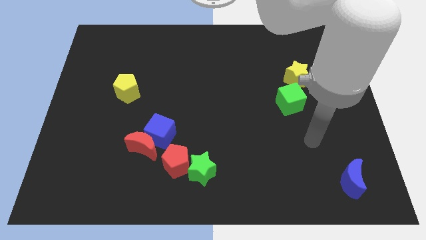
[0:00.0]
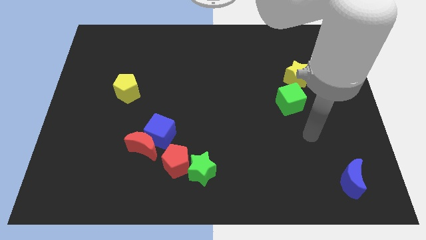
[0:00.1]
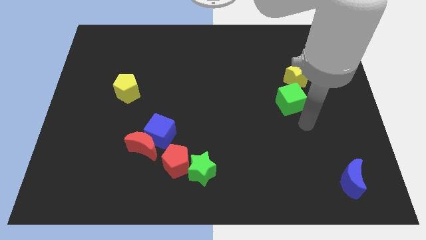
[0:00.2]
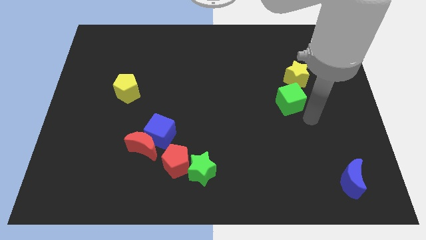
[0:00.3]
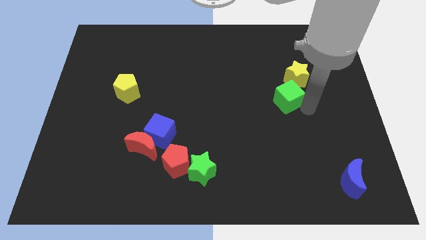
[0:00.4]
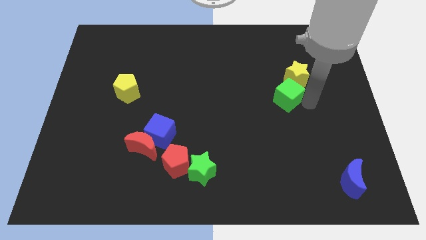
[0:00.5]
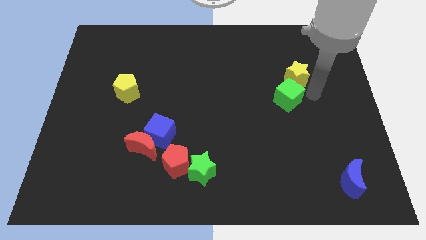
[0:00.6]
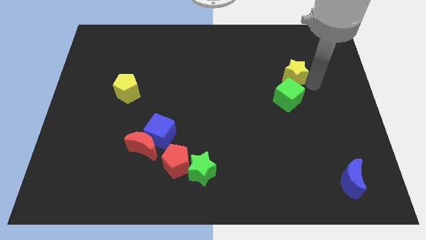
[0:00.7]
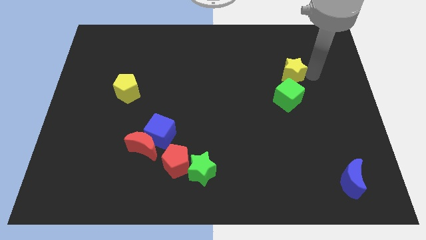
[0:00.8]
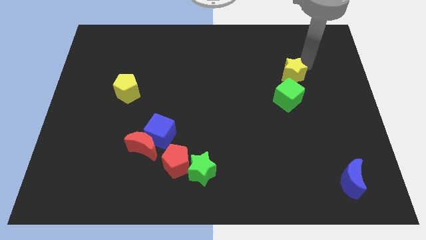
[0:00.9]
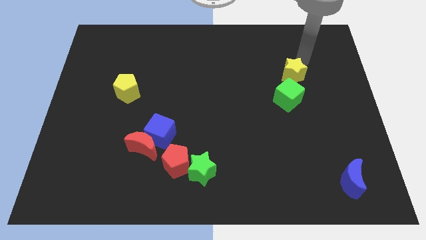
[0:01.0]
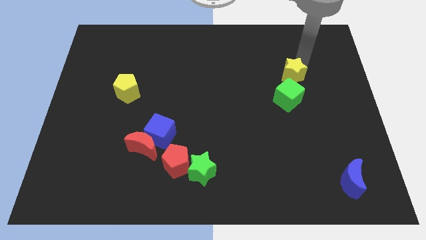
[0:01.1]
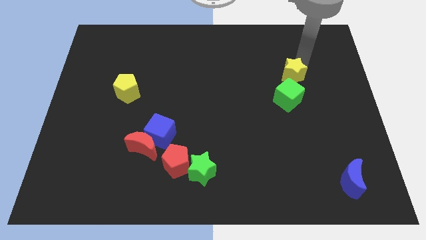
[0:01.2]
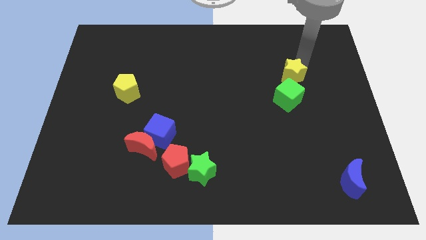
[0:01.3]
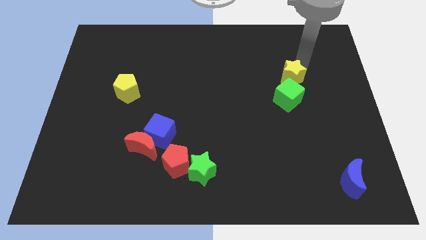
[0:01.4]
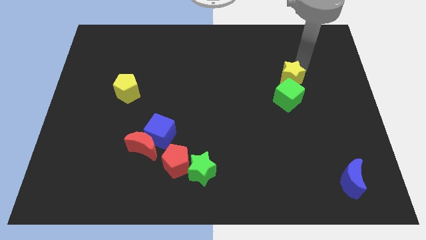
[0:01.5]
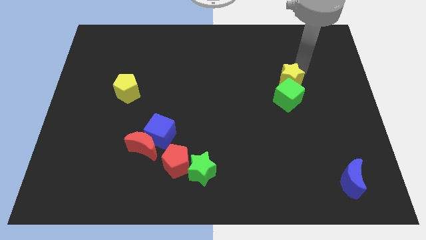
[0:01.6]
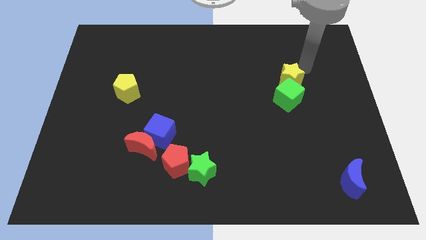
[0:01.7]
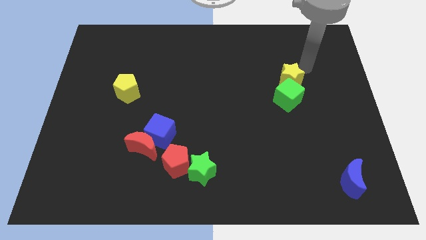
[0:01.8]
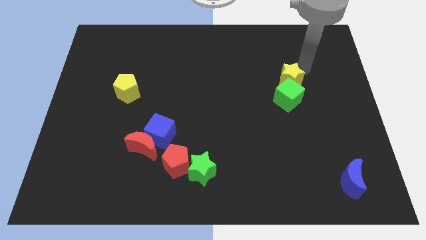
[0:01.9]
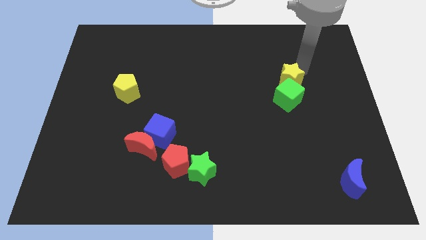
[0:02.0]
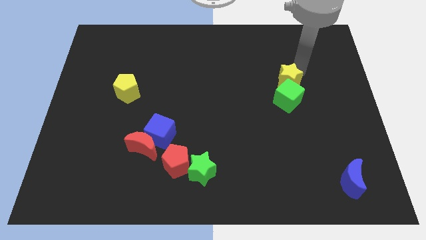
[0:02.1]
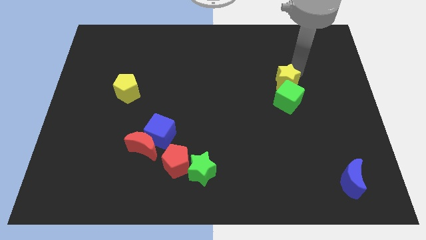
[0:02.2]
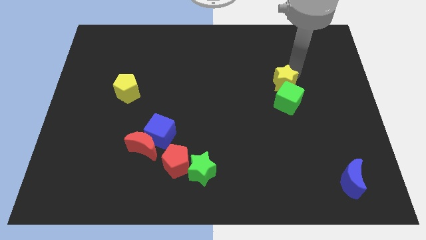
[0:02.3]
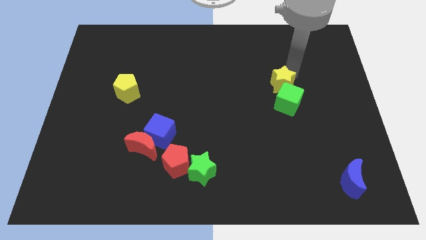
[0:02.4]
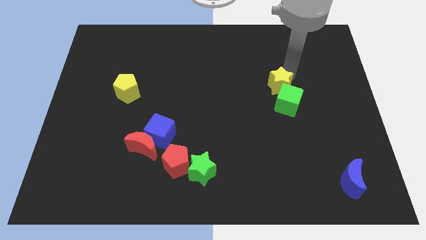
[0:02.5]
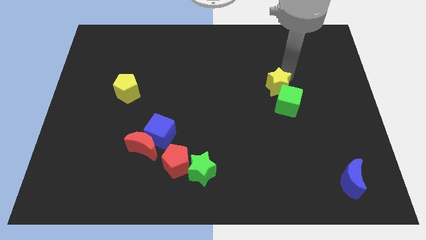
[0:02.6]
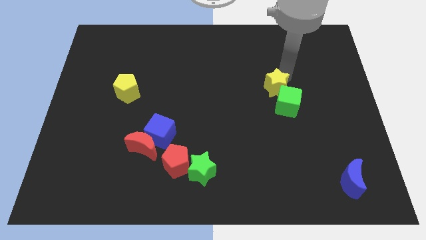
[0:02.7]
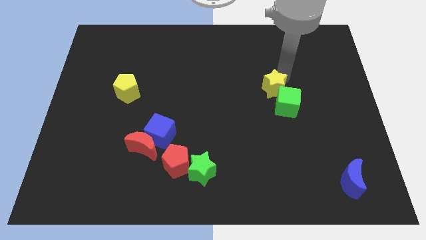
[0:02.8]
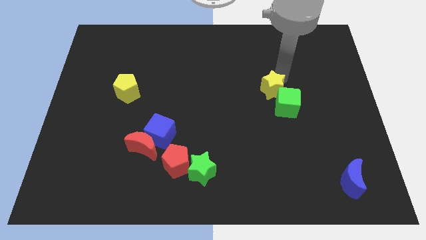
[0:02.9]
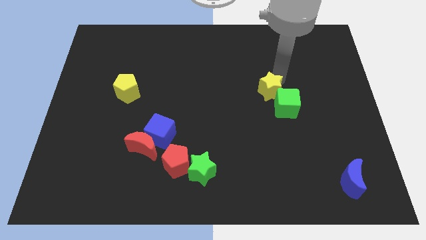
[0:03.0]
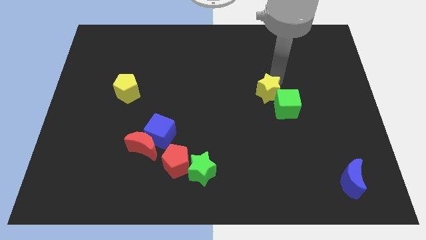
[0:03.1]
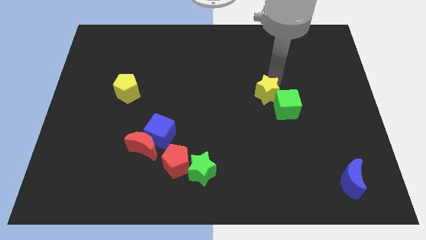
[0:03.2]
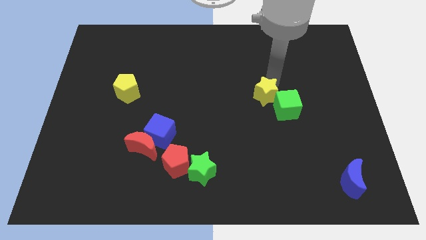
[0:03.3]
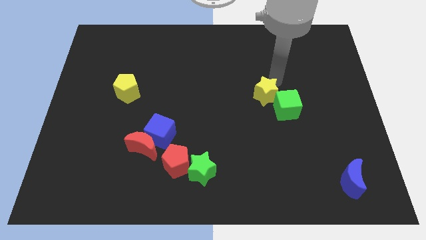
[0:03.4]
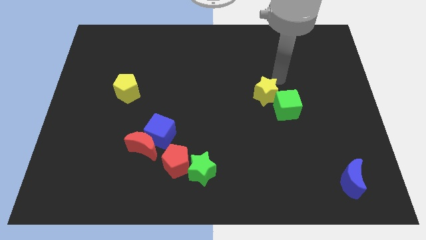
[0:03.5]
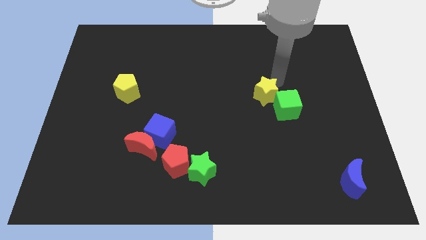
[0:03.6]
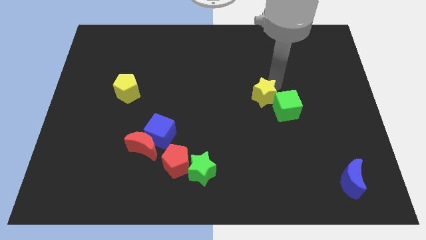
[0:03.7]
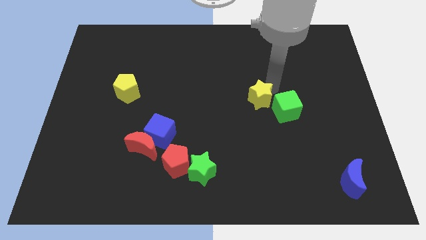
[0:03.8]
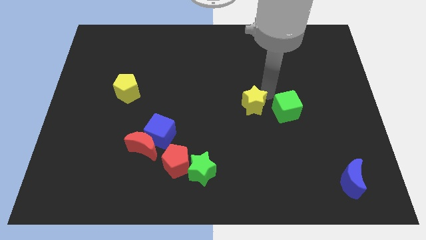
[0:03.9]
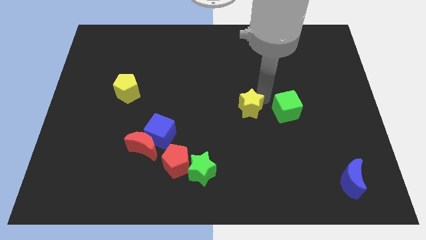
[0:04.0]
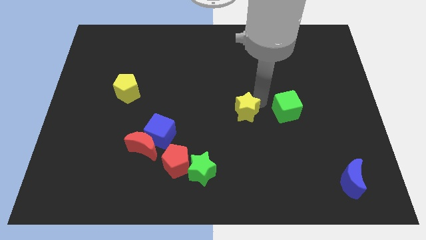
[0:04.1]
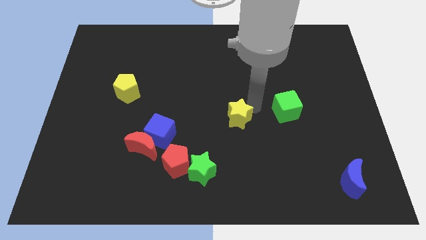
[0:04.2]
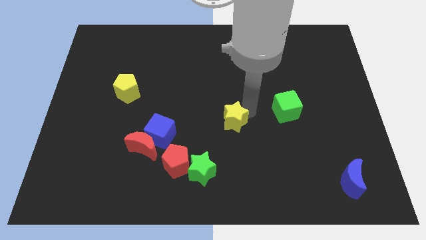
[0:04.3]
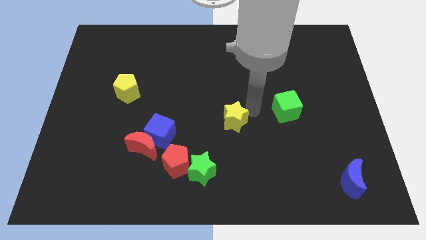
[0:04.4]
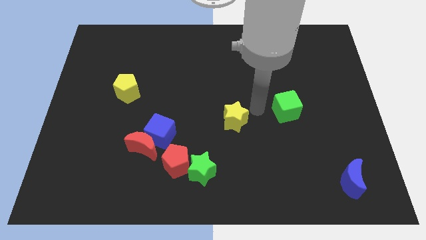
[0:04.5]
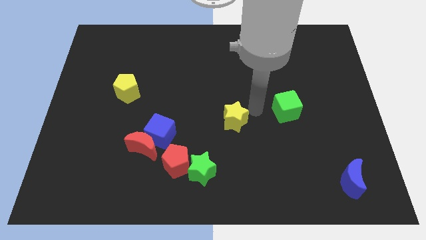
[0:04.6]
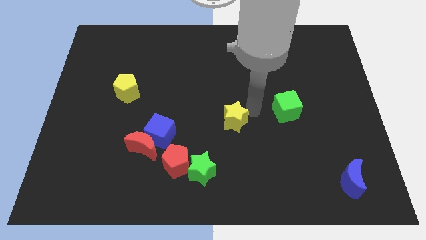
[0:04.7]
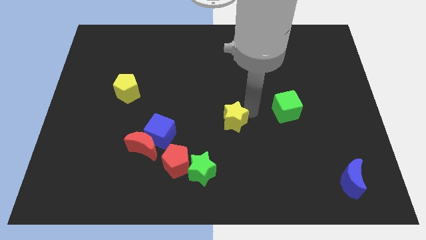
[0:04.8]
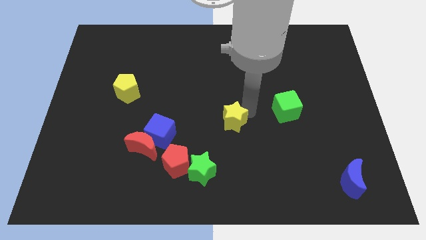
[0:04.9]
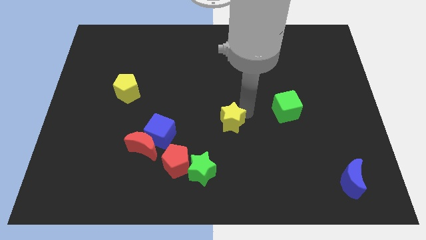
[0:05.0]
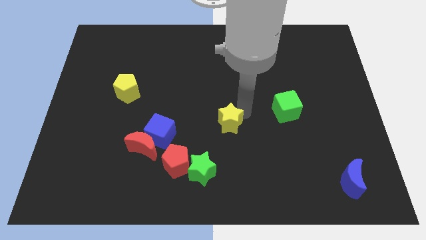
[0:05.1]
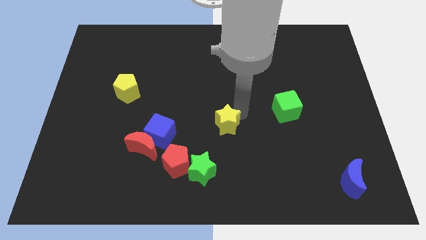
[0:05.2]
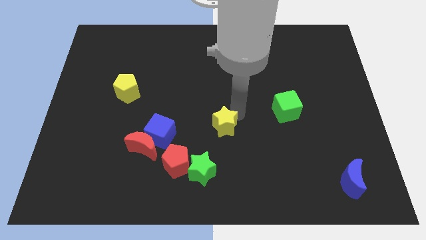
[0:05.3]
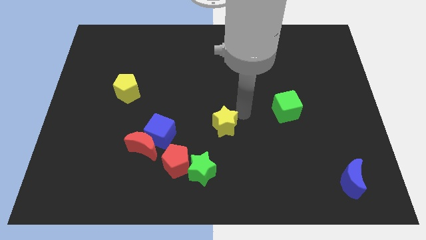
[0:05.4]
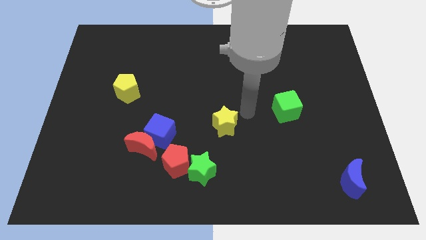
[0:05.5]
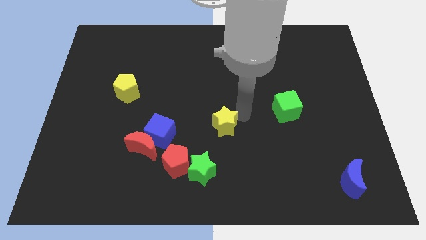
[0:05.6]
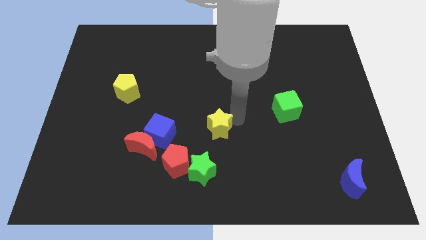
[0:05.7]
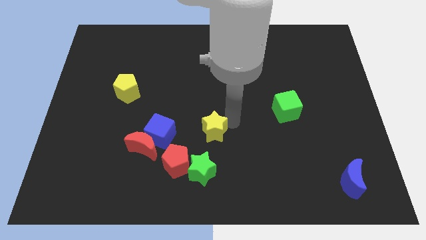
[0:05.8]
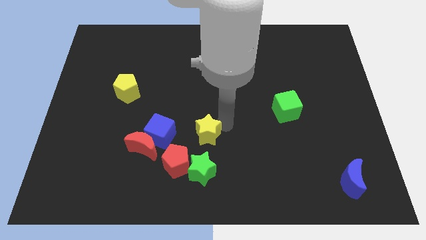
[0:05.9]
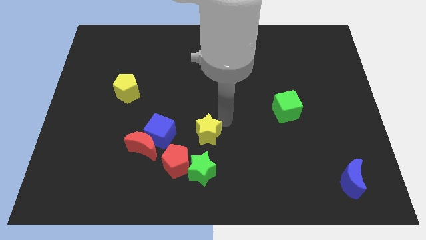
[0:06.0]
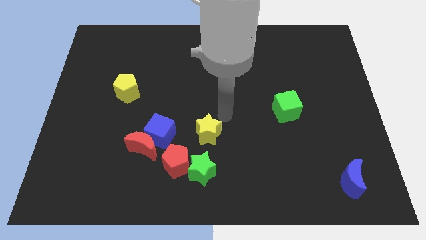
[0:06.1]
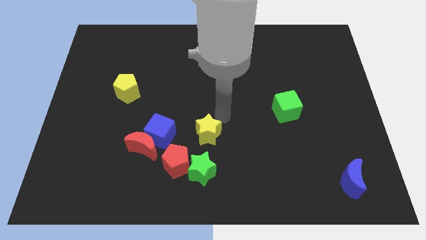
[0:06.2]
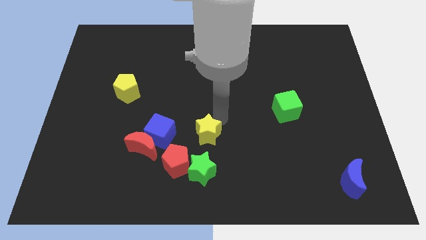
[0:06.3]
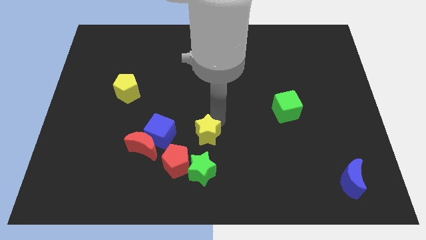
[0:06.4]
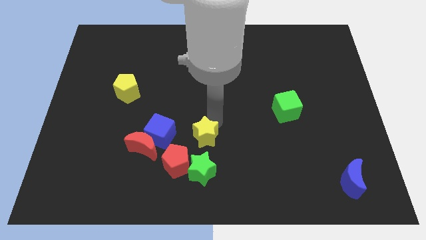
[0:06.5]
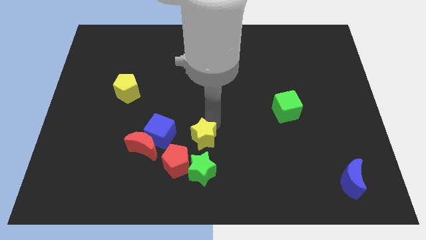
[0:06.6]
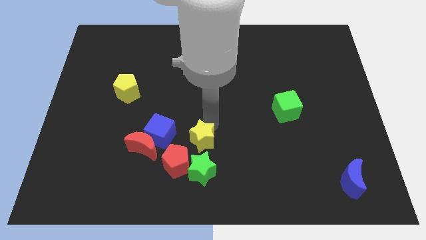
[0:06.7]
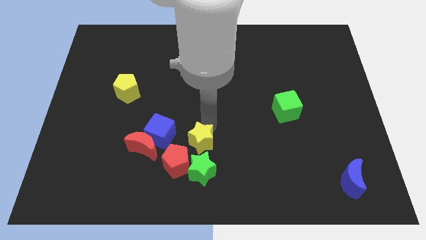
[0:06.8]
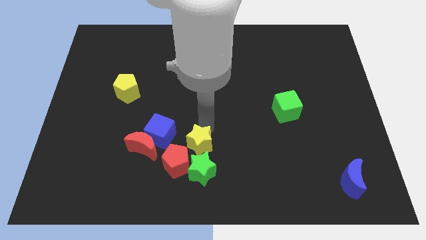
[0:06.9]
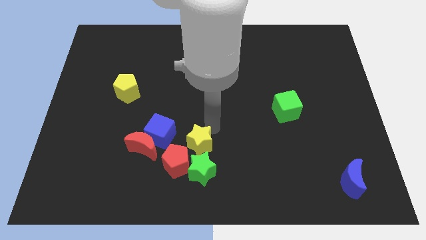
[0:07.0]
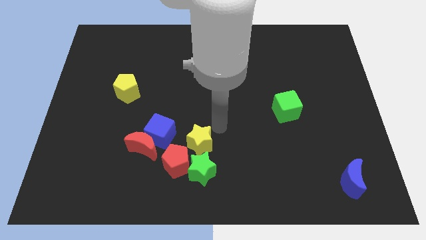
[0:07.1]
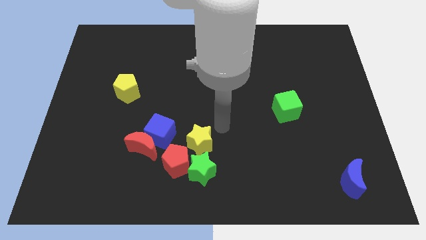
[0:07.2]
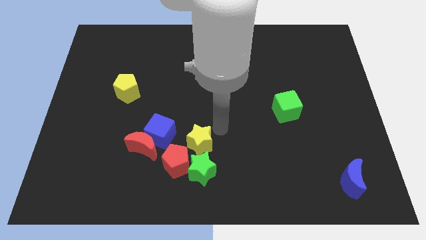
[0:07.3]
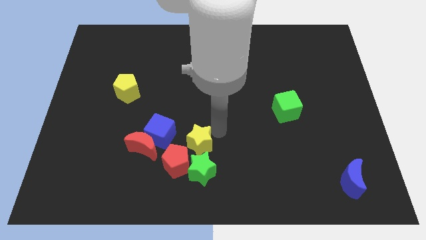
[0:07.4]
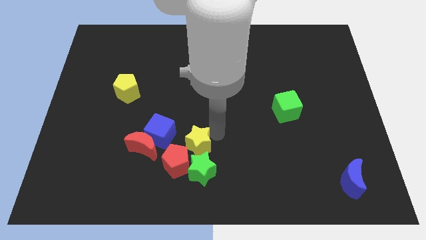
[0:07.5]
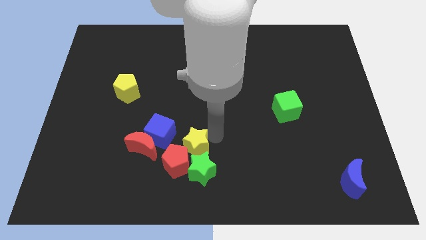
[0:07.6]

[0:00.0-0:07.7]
slide the yellow star close to the red pentagon
